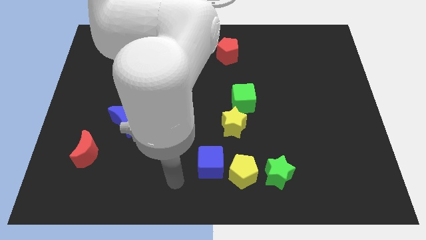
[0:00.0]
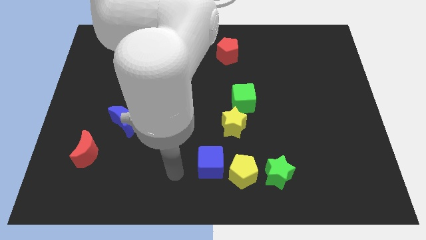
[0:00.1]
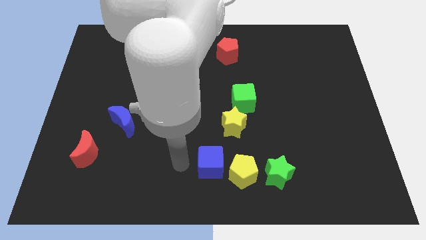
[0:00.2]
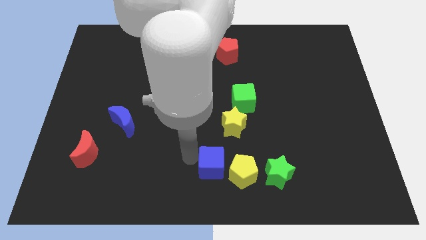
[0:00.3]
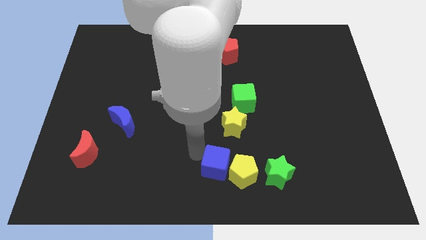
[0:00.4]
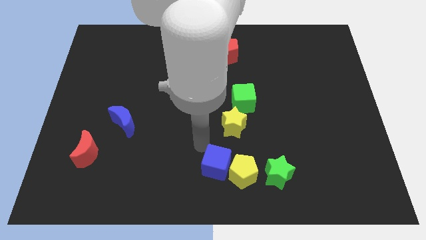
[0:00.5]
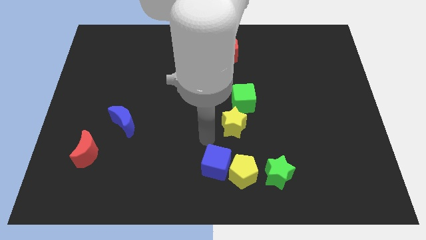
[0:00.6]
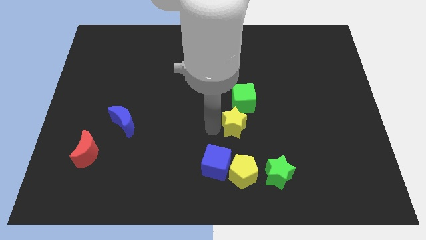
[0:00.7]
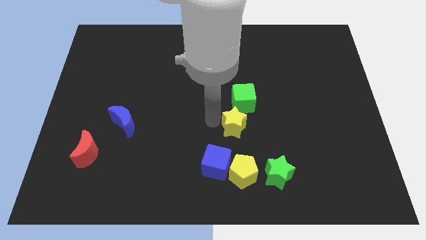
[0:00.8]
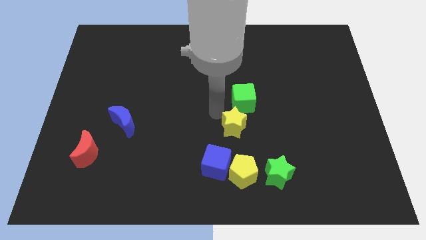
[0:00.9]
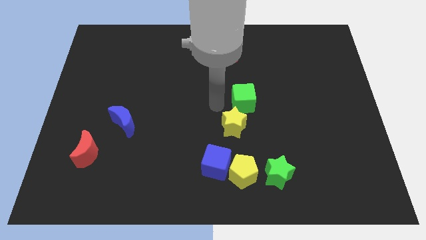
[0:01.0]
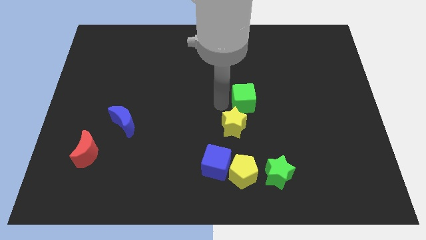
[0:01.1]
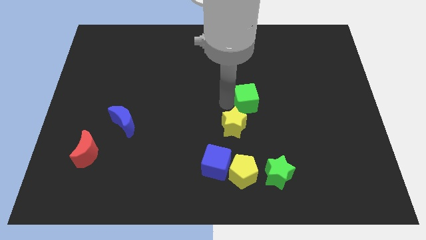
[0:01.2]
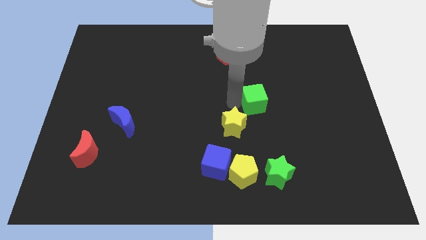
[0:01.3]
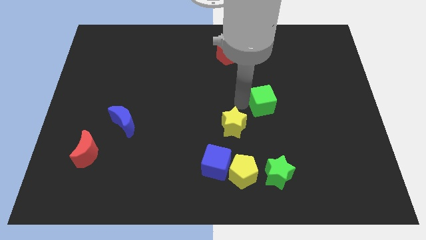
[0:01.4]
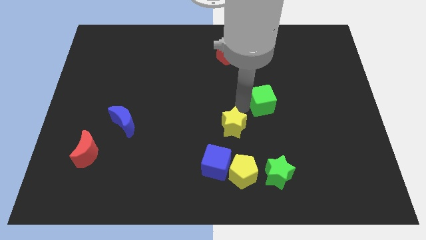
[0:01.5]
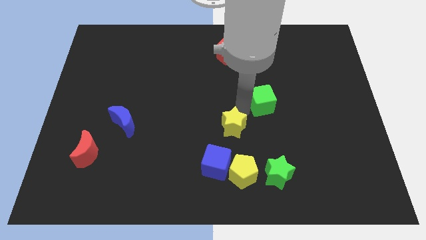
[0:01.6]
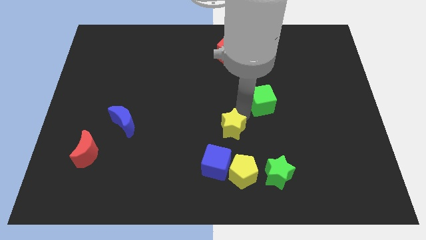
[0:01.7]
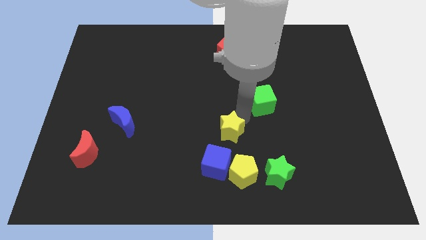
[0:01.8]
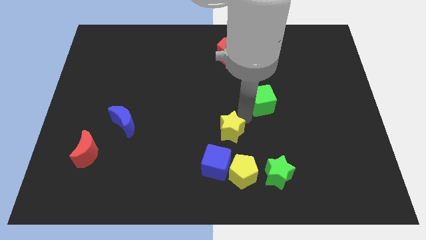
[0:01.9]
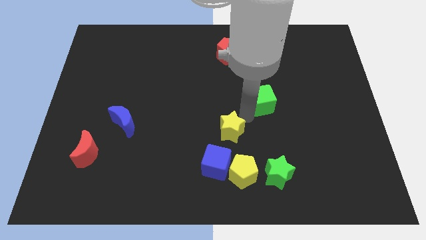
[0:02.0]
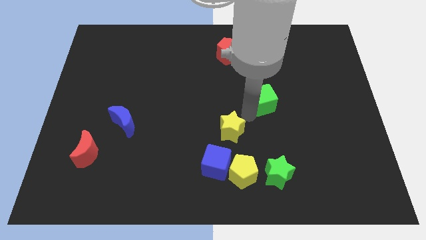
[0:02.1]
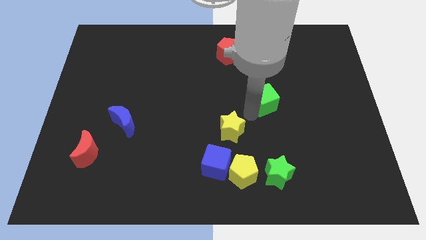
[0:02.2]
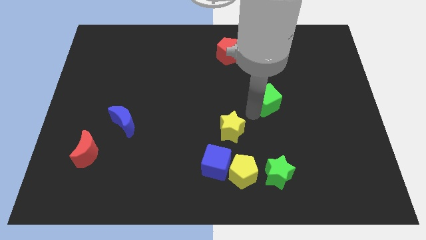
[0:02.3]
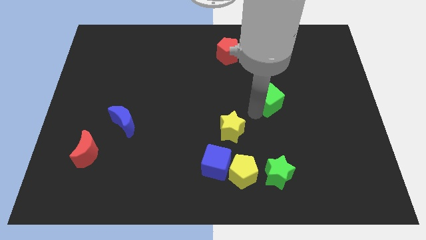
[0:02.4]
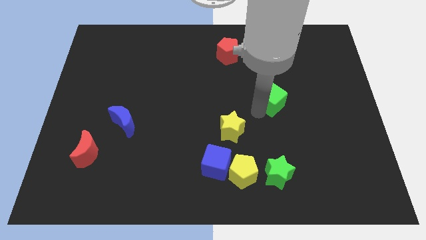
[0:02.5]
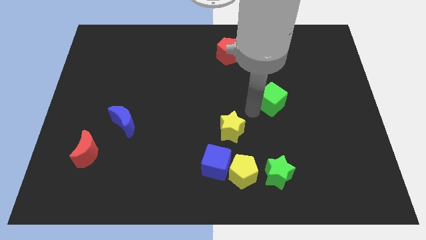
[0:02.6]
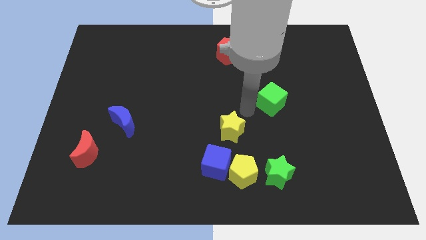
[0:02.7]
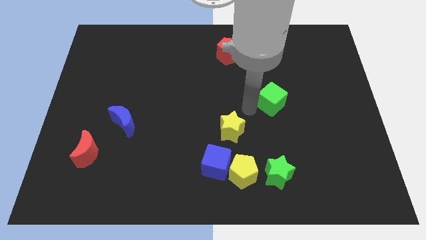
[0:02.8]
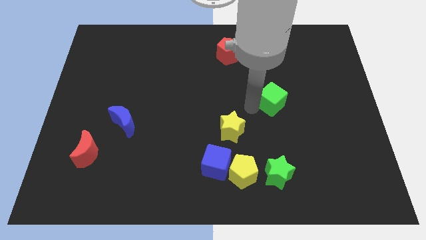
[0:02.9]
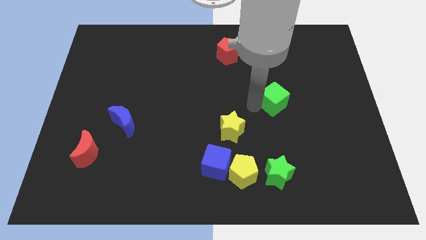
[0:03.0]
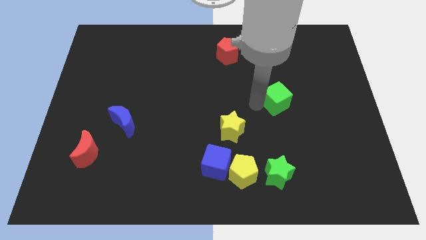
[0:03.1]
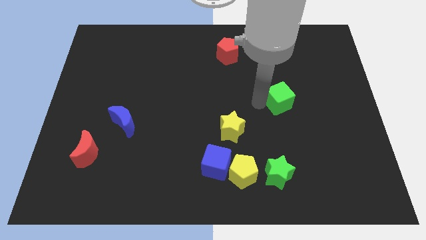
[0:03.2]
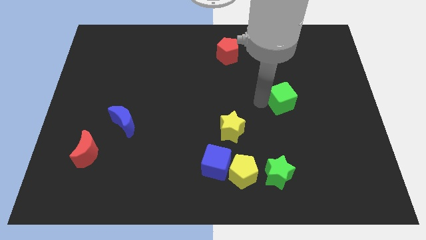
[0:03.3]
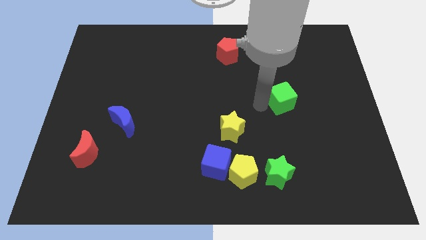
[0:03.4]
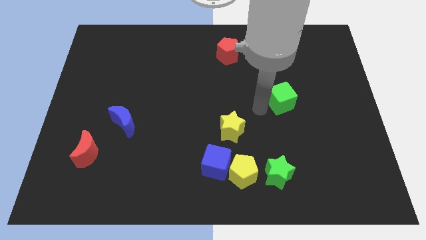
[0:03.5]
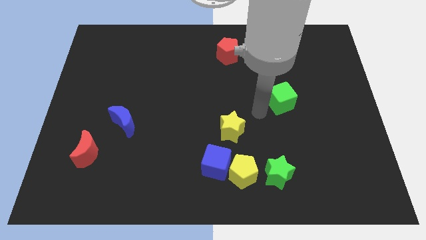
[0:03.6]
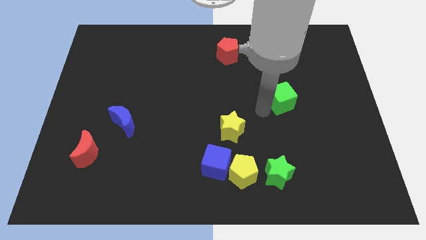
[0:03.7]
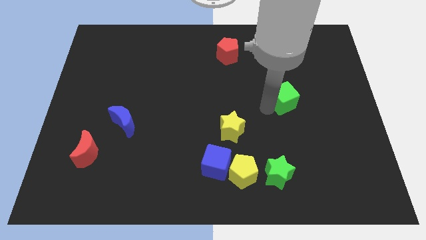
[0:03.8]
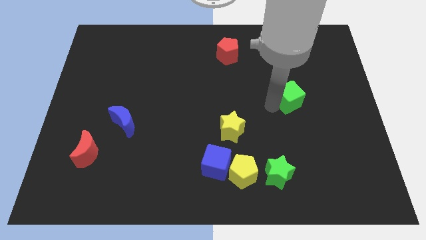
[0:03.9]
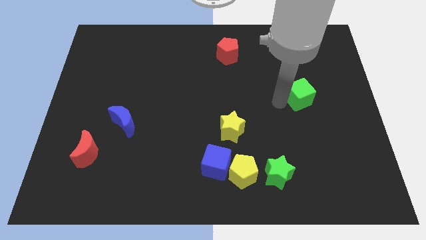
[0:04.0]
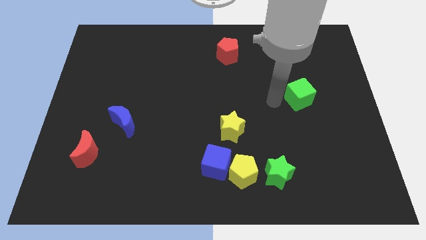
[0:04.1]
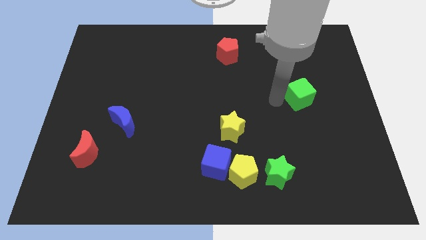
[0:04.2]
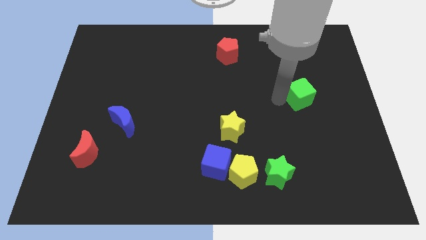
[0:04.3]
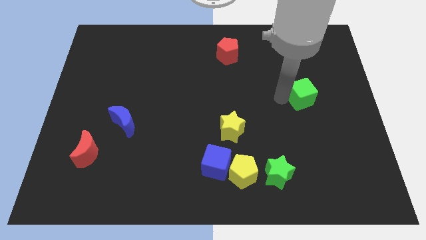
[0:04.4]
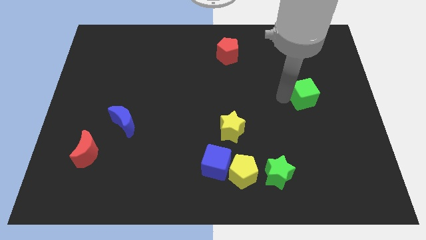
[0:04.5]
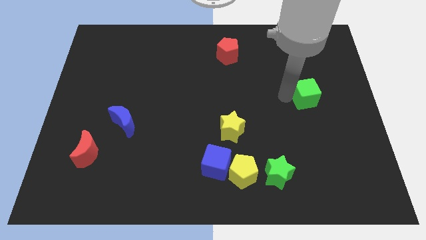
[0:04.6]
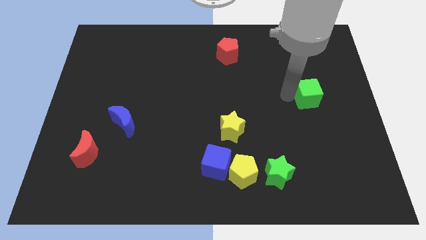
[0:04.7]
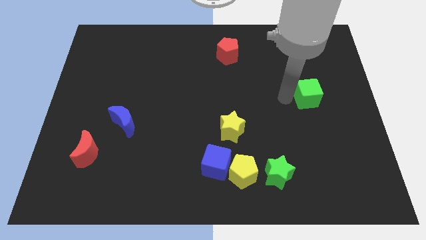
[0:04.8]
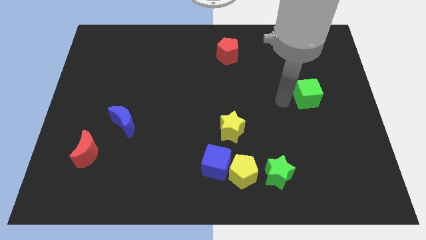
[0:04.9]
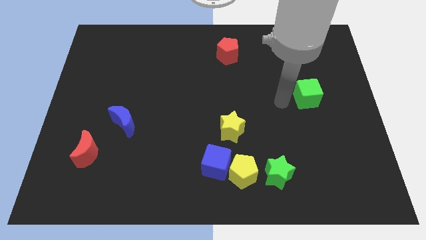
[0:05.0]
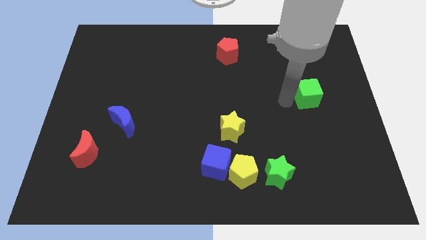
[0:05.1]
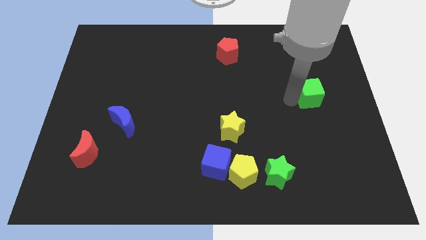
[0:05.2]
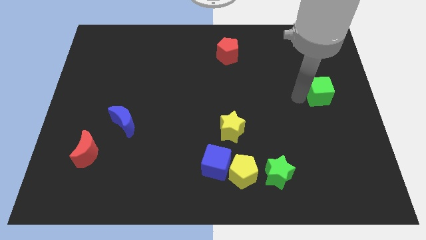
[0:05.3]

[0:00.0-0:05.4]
put the green cube to the right side of the board

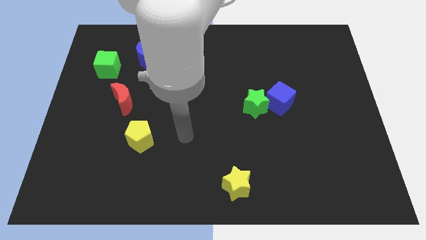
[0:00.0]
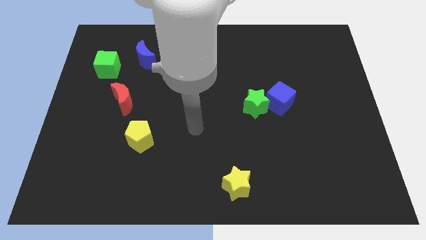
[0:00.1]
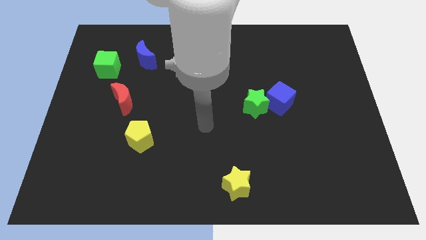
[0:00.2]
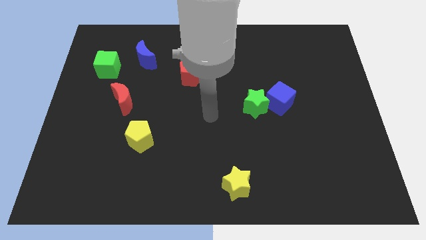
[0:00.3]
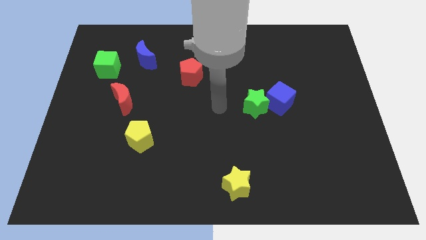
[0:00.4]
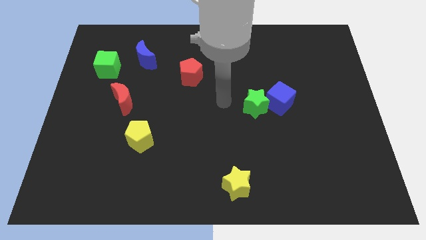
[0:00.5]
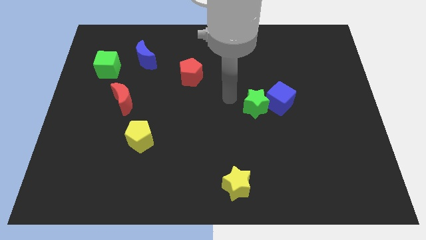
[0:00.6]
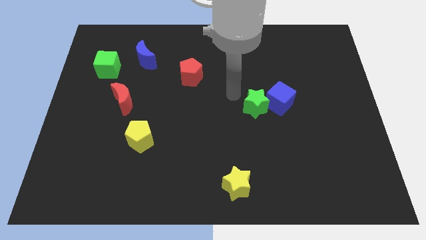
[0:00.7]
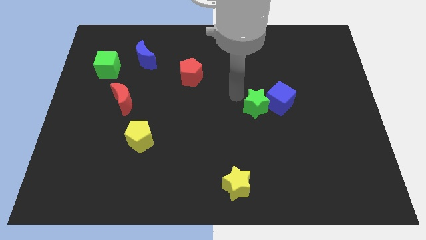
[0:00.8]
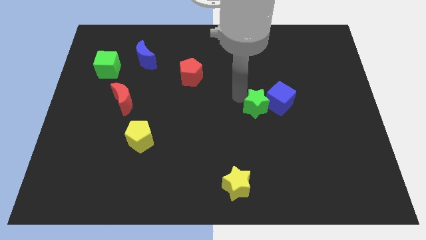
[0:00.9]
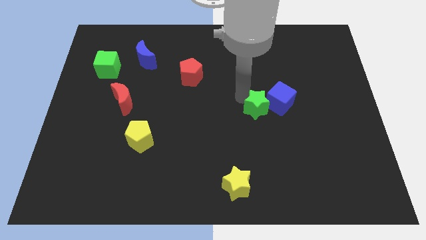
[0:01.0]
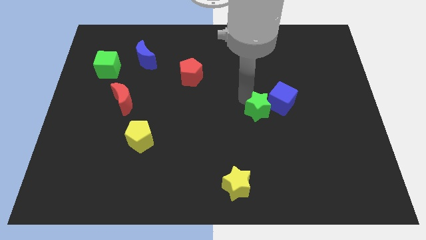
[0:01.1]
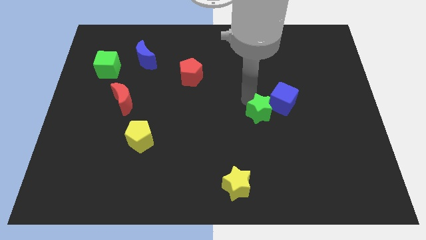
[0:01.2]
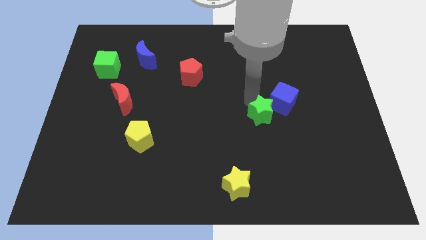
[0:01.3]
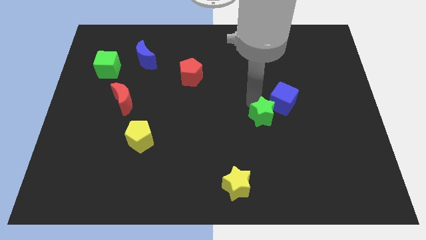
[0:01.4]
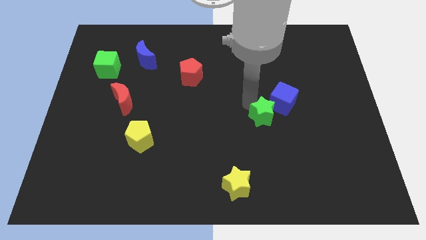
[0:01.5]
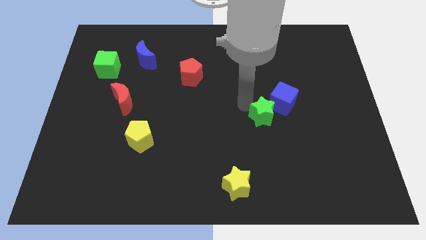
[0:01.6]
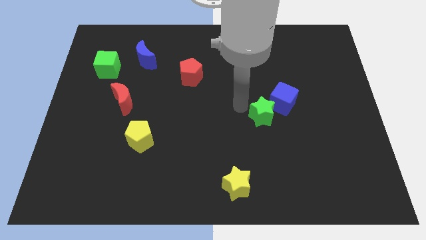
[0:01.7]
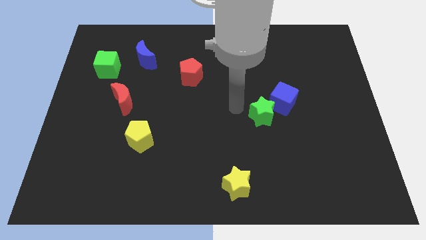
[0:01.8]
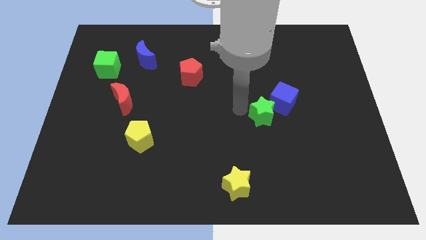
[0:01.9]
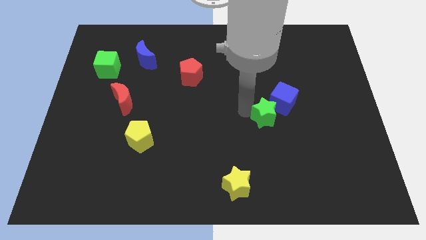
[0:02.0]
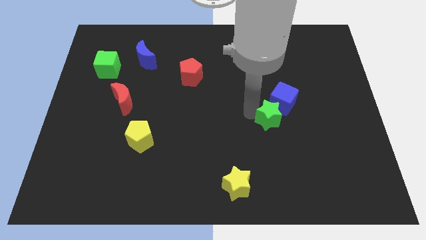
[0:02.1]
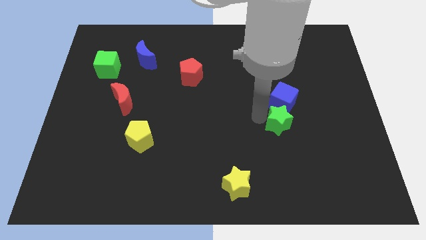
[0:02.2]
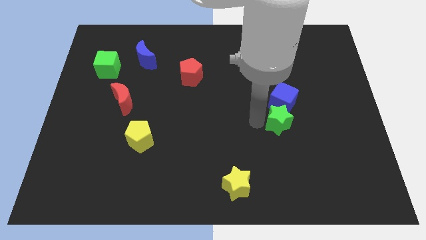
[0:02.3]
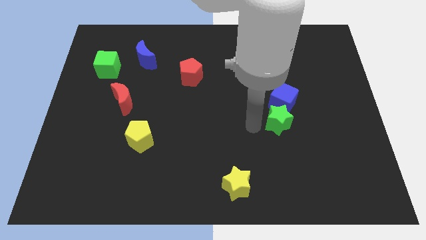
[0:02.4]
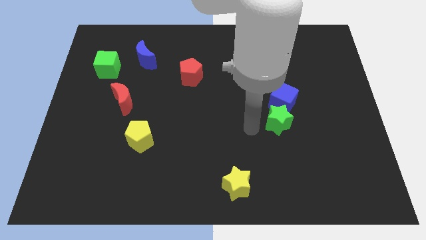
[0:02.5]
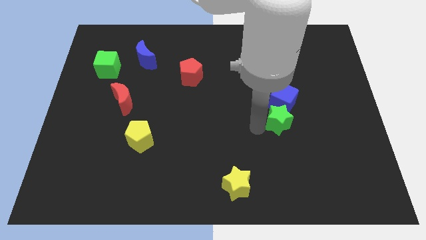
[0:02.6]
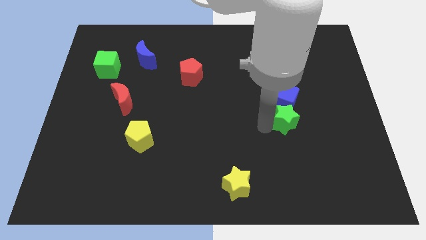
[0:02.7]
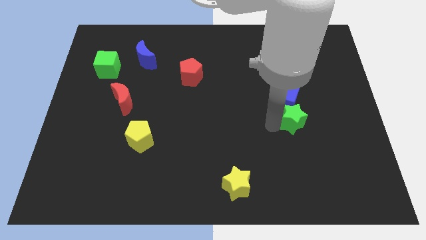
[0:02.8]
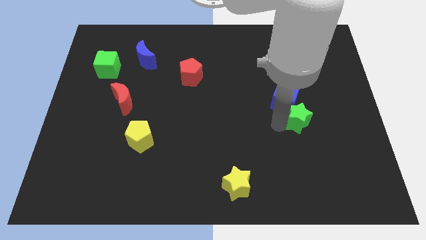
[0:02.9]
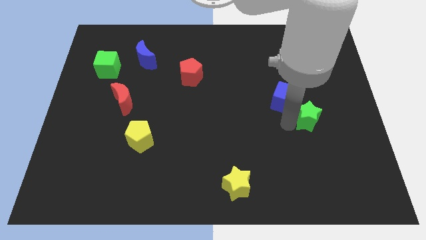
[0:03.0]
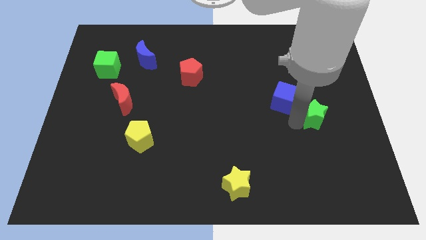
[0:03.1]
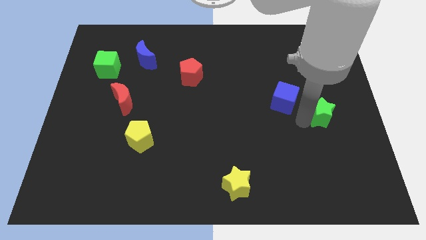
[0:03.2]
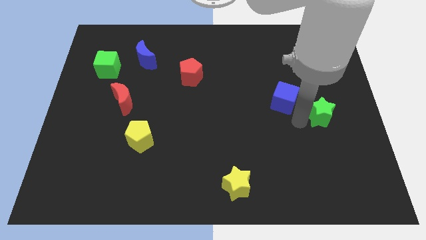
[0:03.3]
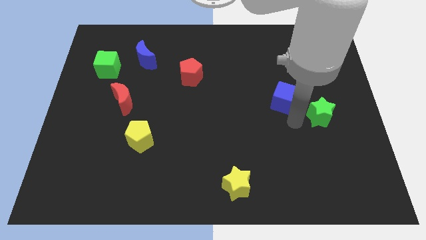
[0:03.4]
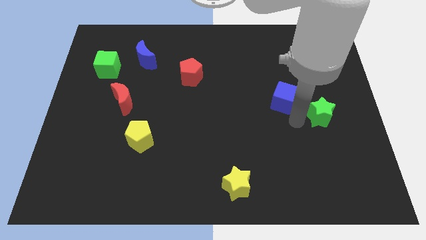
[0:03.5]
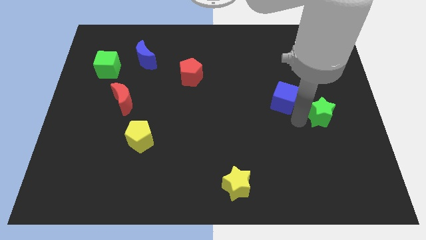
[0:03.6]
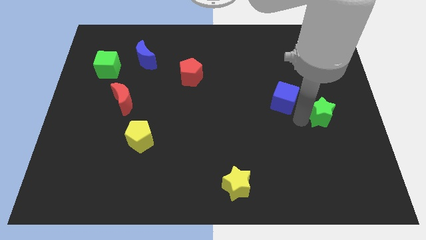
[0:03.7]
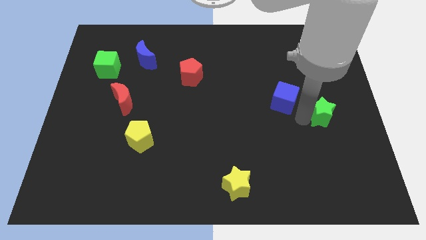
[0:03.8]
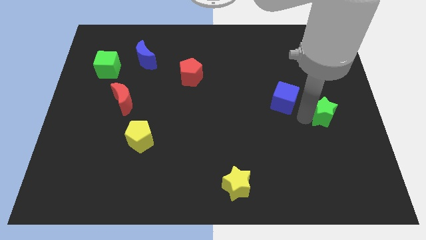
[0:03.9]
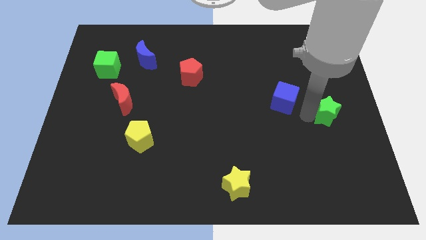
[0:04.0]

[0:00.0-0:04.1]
move the green star to the center right
